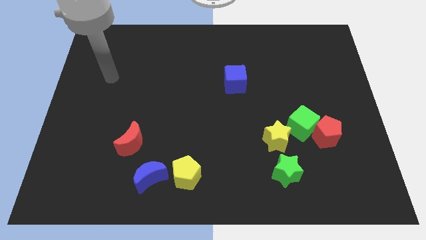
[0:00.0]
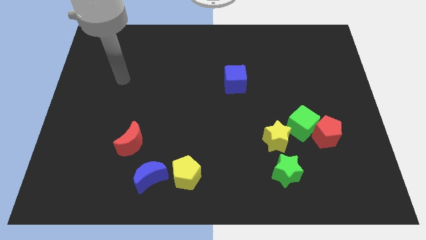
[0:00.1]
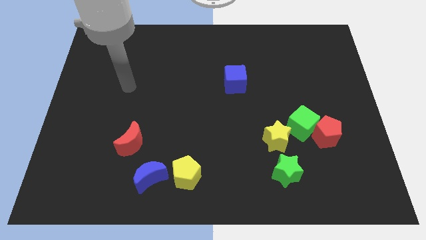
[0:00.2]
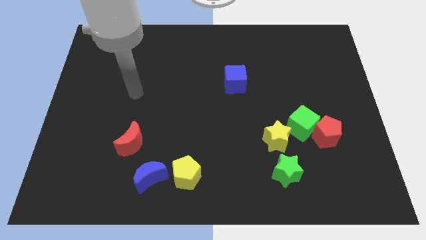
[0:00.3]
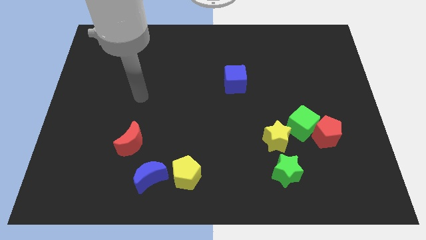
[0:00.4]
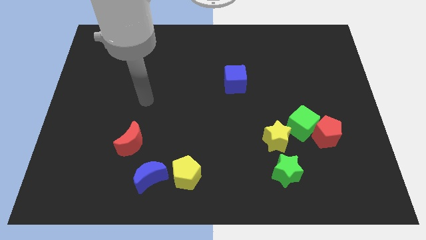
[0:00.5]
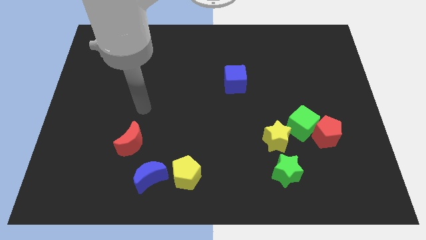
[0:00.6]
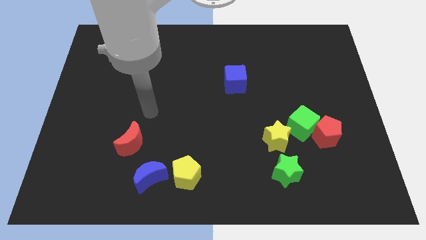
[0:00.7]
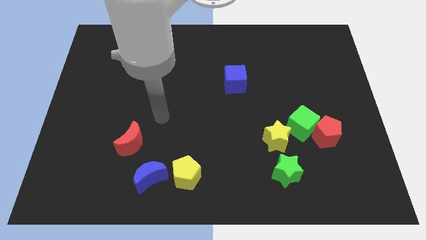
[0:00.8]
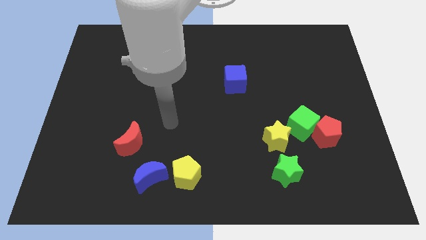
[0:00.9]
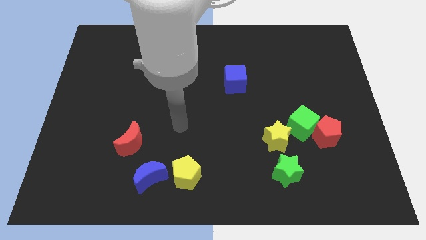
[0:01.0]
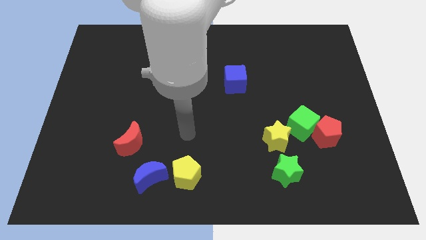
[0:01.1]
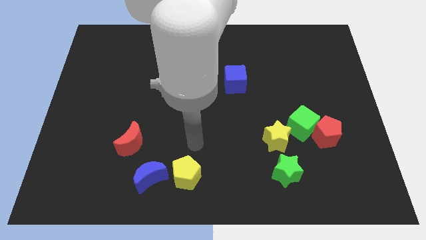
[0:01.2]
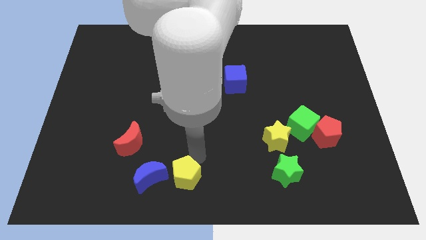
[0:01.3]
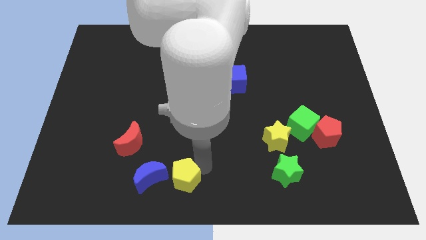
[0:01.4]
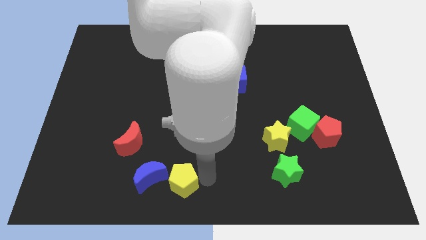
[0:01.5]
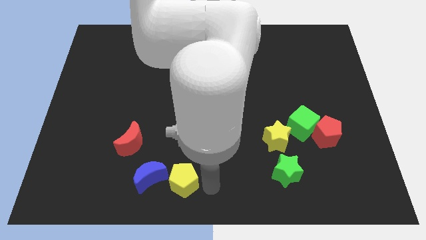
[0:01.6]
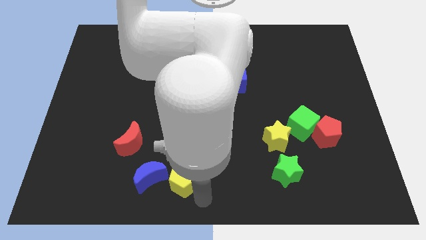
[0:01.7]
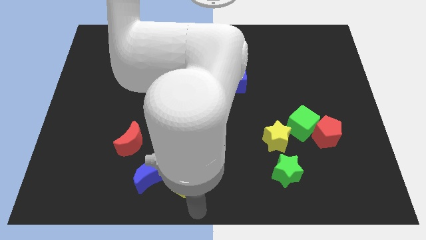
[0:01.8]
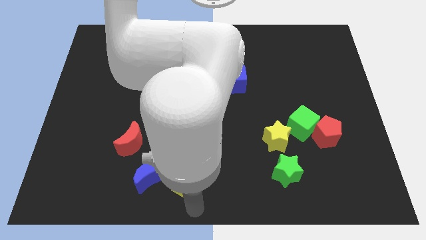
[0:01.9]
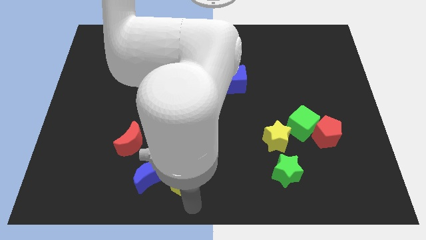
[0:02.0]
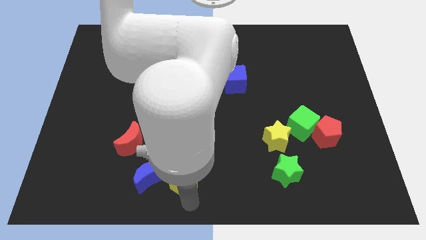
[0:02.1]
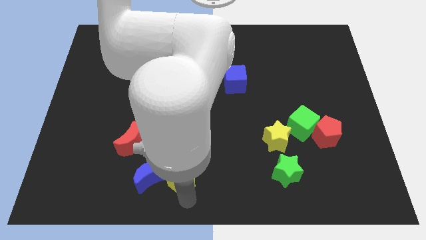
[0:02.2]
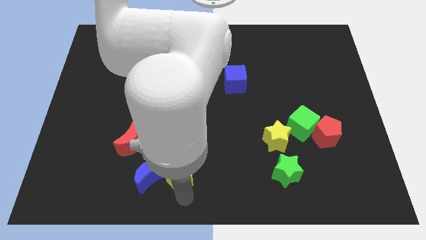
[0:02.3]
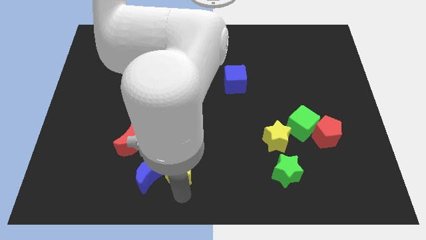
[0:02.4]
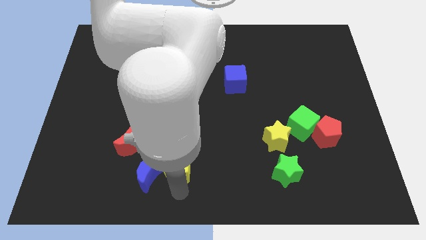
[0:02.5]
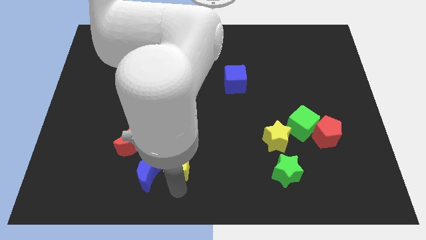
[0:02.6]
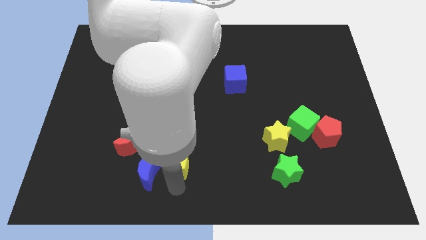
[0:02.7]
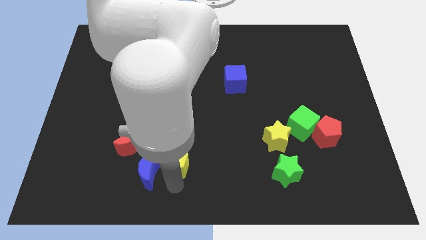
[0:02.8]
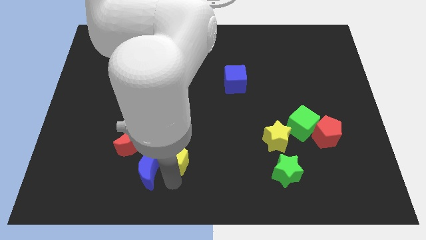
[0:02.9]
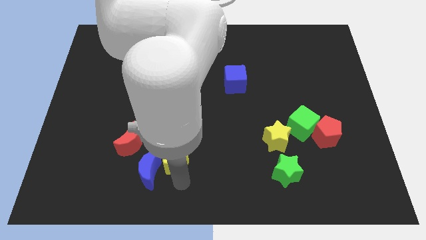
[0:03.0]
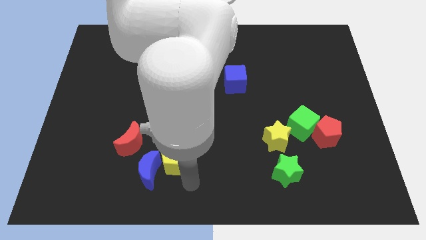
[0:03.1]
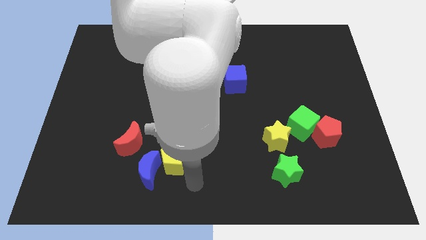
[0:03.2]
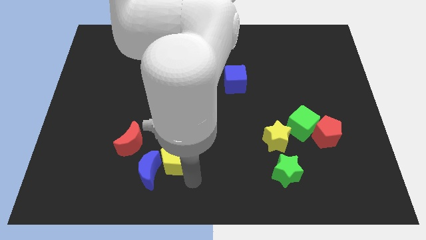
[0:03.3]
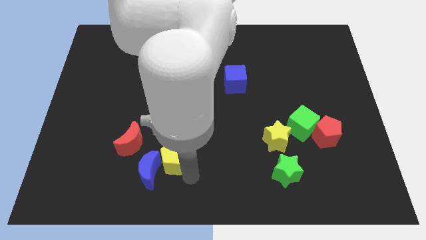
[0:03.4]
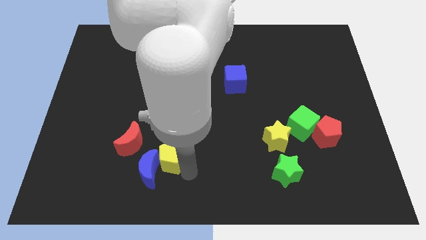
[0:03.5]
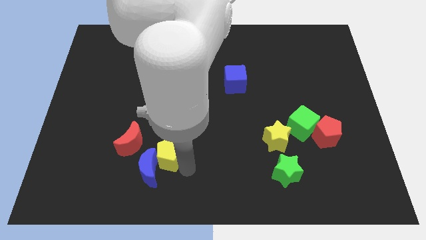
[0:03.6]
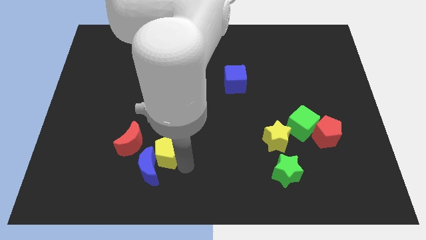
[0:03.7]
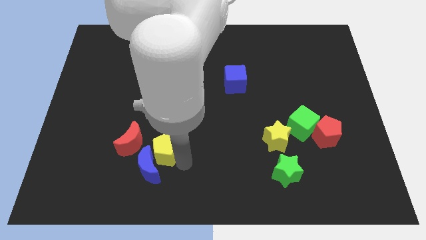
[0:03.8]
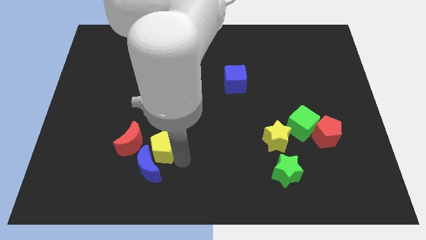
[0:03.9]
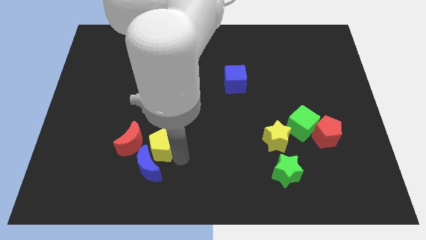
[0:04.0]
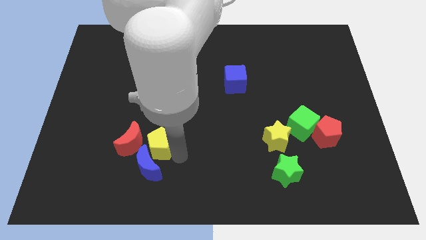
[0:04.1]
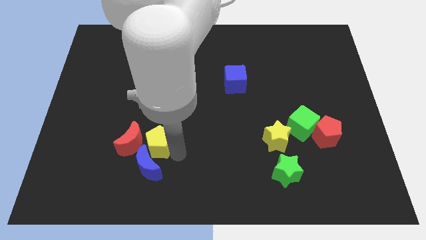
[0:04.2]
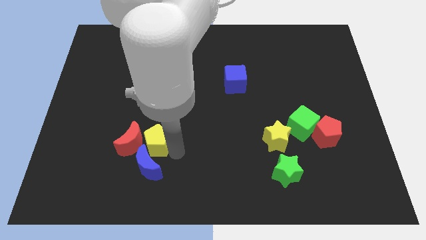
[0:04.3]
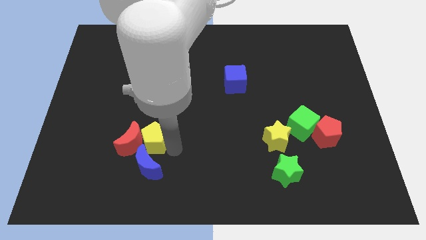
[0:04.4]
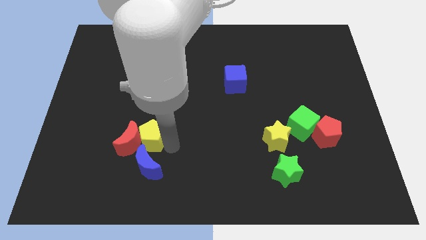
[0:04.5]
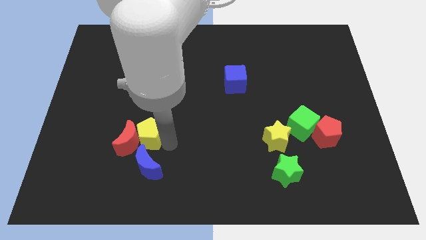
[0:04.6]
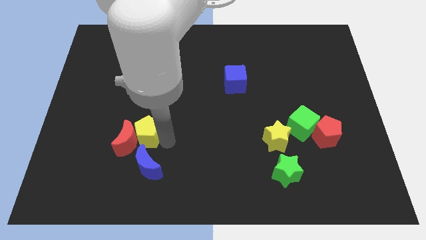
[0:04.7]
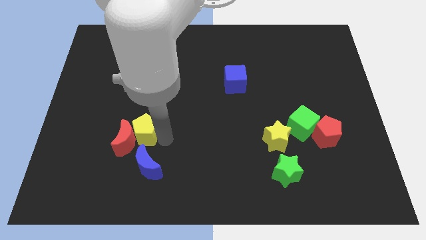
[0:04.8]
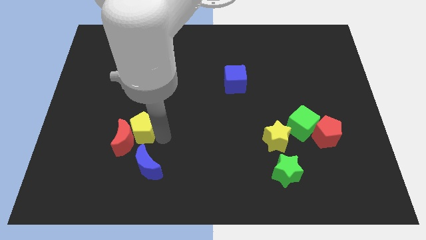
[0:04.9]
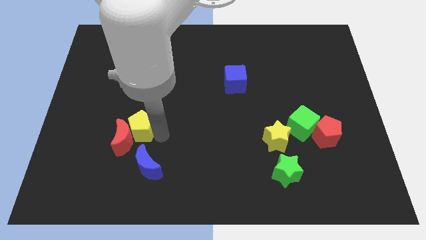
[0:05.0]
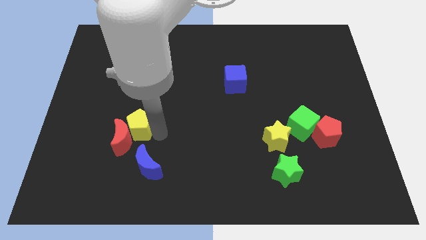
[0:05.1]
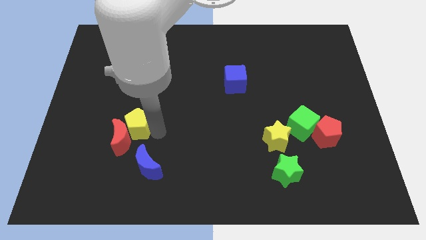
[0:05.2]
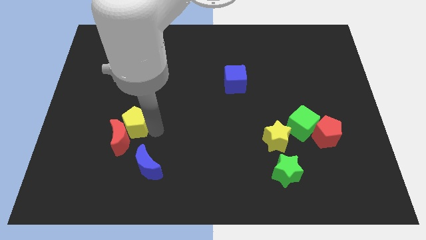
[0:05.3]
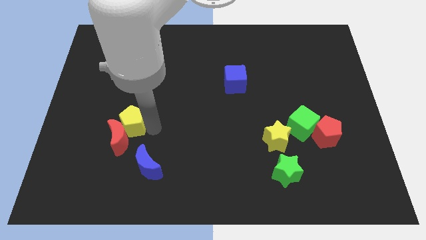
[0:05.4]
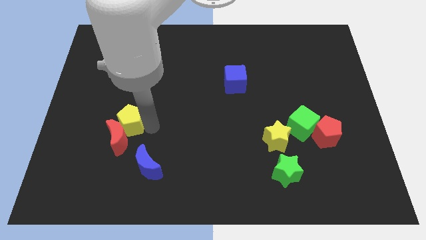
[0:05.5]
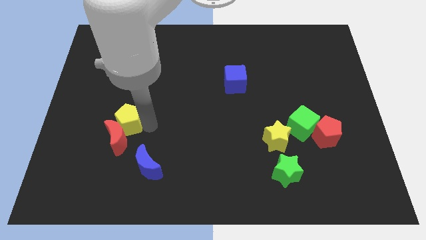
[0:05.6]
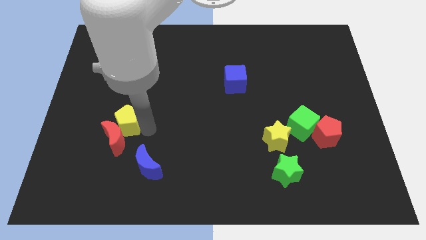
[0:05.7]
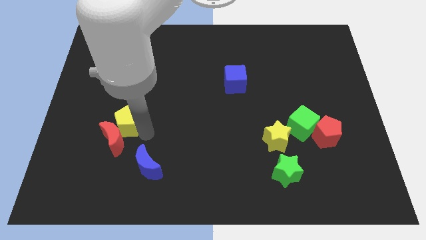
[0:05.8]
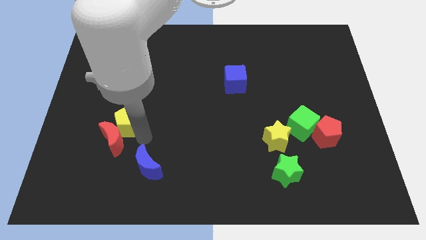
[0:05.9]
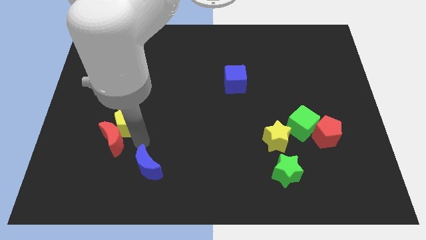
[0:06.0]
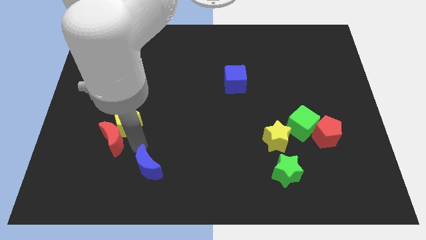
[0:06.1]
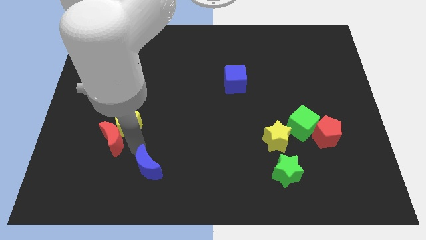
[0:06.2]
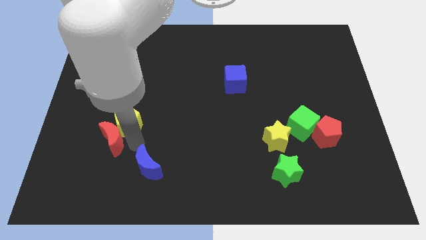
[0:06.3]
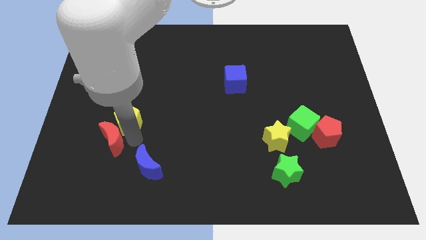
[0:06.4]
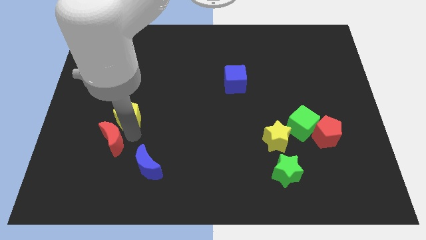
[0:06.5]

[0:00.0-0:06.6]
slide the yellow pentagon up and left diagonally

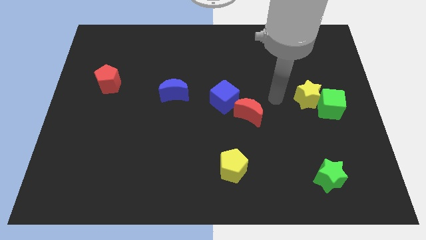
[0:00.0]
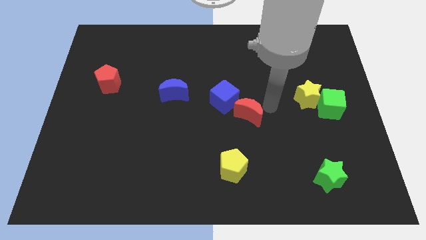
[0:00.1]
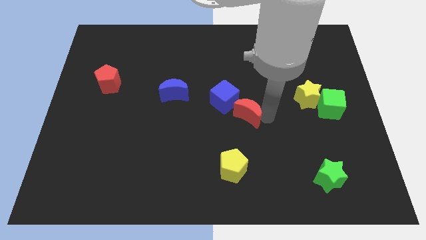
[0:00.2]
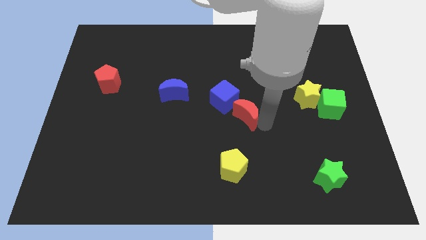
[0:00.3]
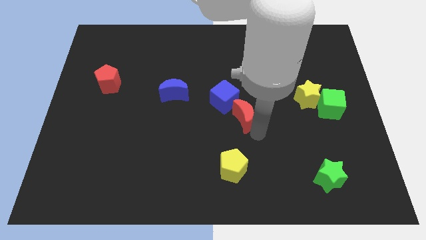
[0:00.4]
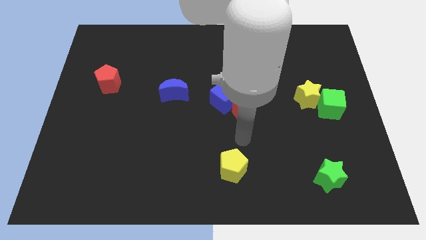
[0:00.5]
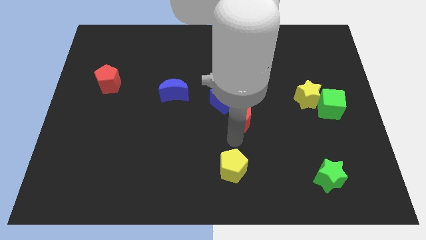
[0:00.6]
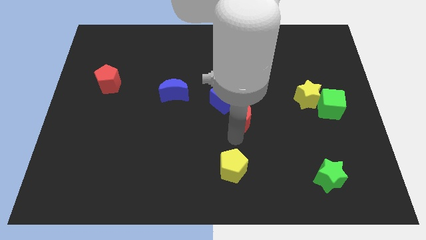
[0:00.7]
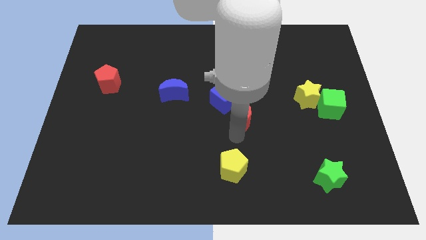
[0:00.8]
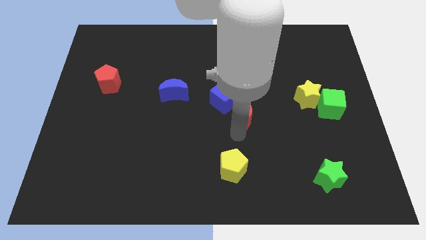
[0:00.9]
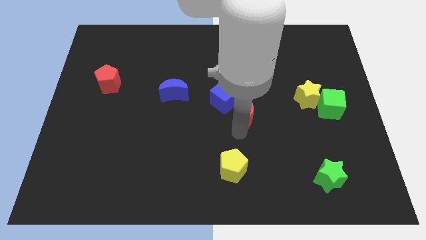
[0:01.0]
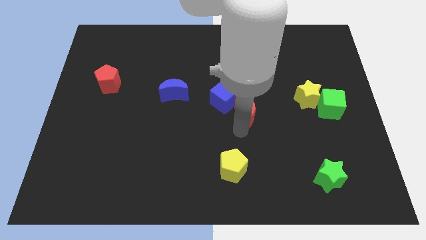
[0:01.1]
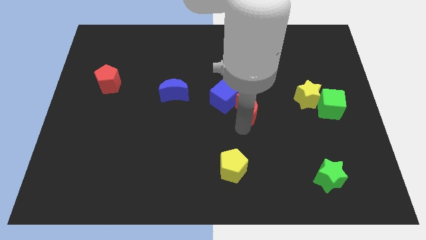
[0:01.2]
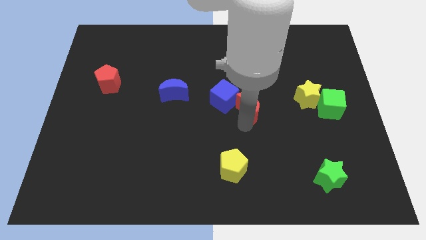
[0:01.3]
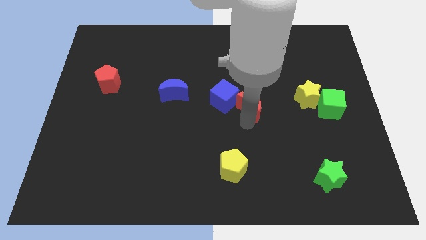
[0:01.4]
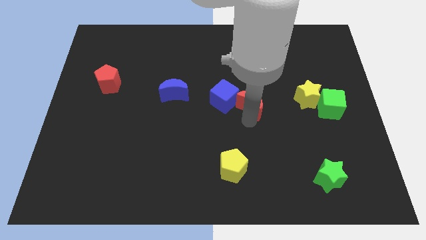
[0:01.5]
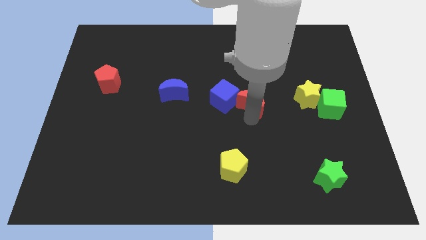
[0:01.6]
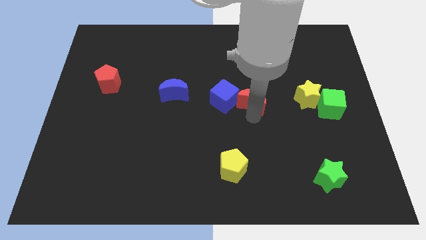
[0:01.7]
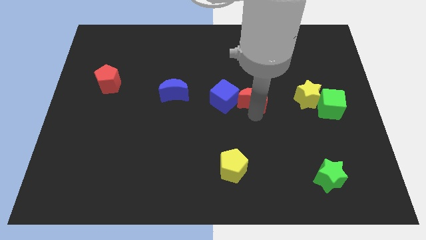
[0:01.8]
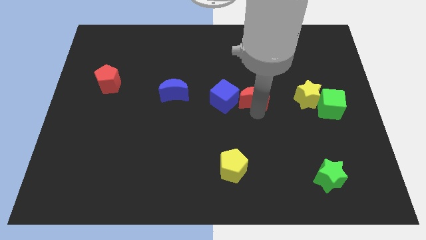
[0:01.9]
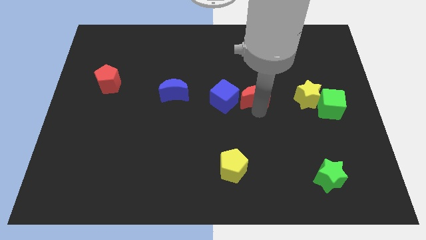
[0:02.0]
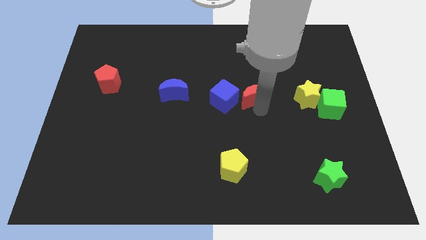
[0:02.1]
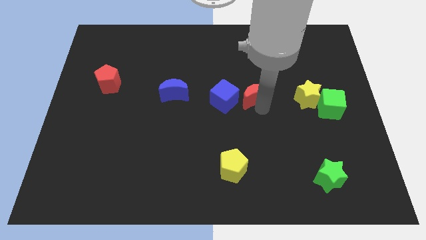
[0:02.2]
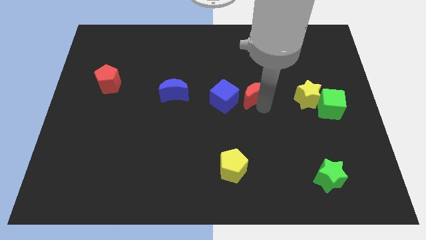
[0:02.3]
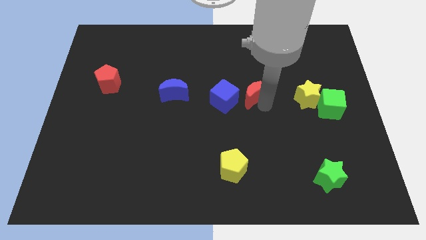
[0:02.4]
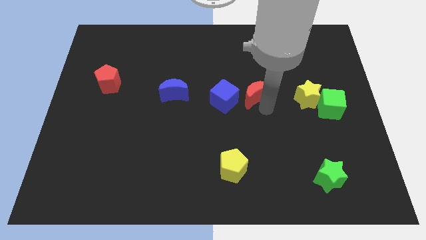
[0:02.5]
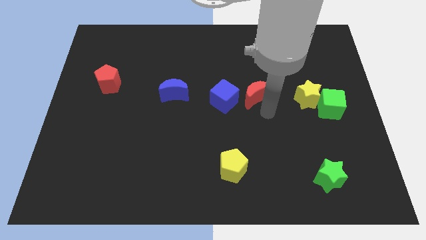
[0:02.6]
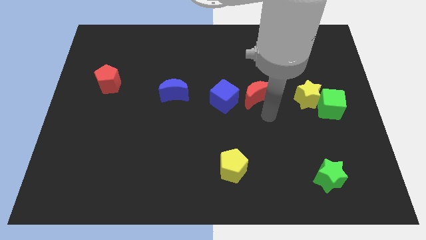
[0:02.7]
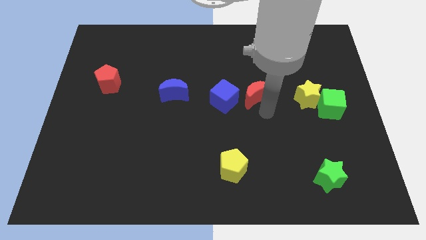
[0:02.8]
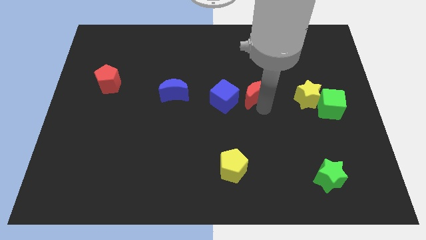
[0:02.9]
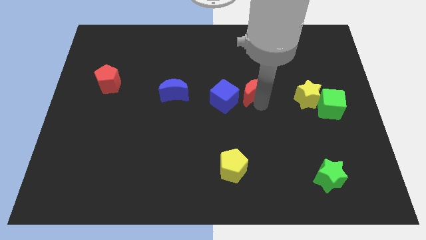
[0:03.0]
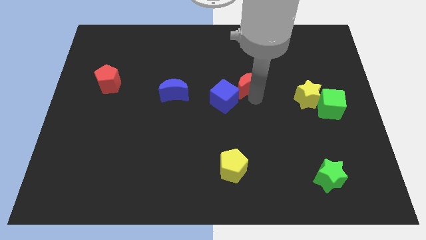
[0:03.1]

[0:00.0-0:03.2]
push the red moon a bit upwards
